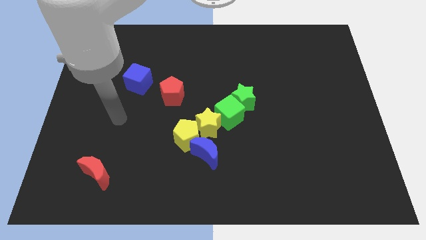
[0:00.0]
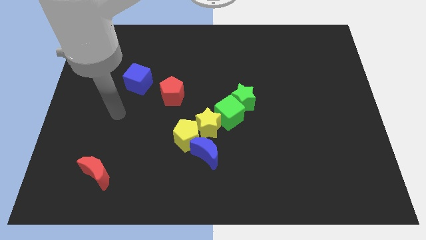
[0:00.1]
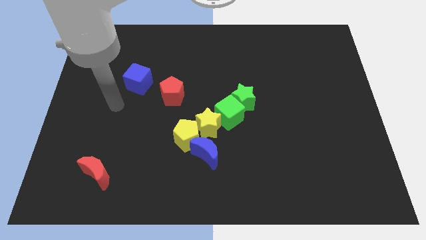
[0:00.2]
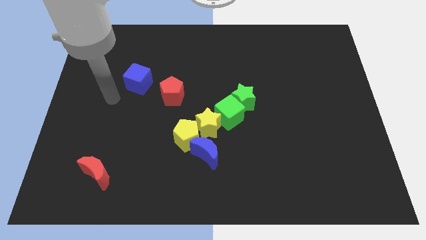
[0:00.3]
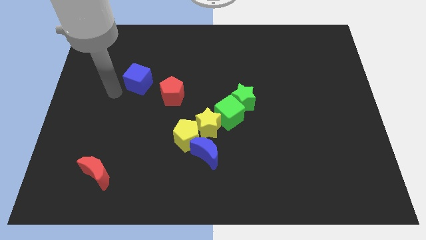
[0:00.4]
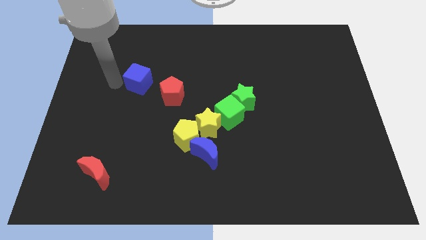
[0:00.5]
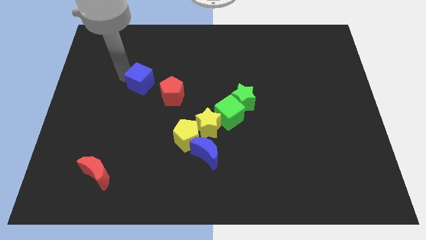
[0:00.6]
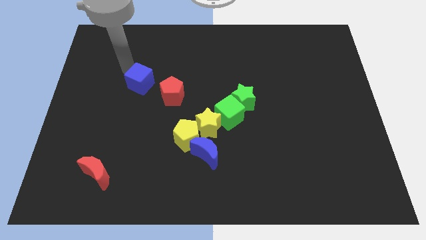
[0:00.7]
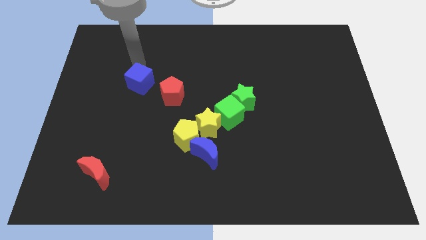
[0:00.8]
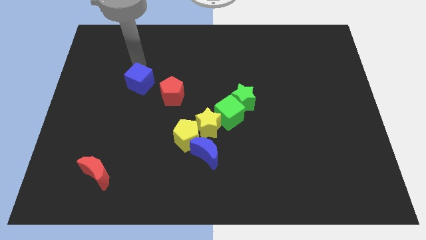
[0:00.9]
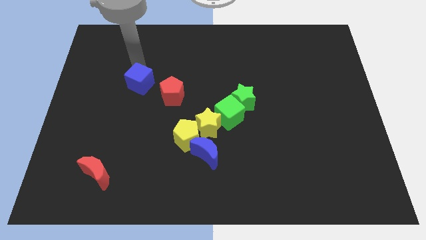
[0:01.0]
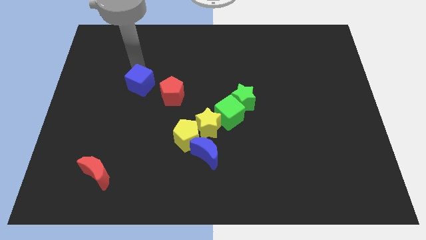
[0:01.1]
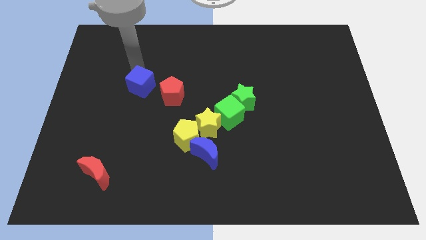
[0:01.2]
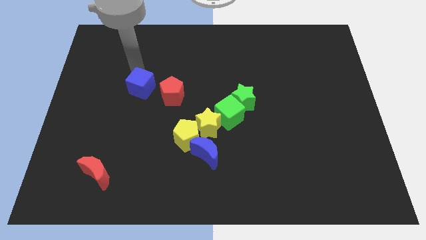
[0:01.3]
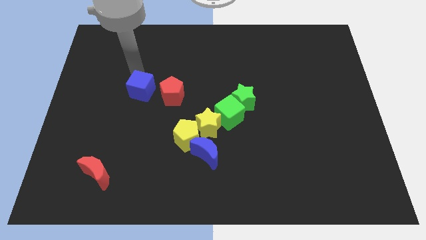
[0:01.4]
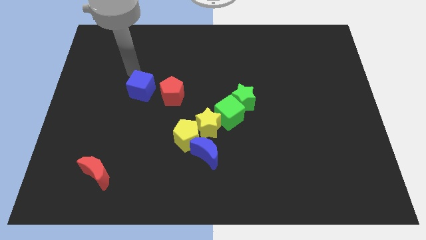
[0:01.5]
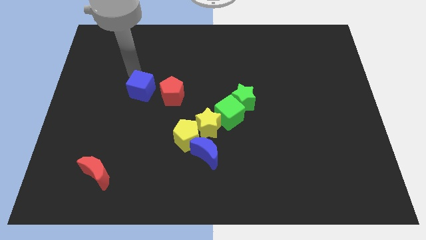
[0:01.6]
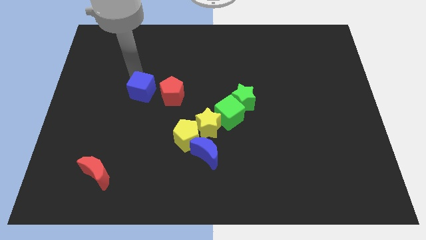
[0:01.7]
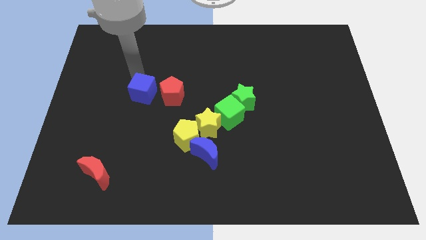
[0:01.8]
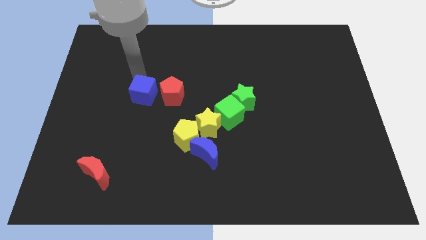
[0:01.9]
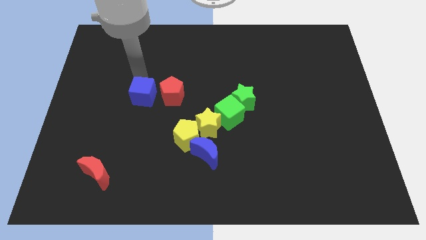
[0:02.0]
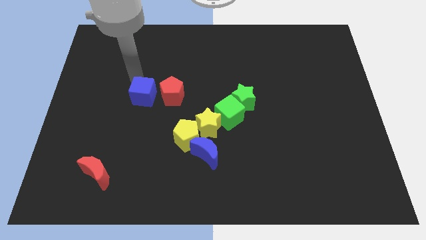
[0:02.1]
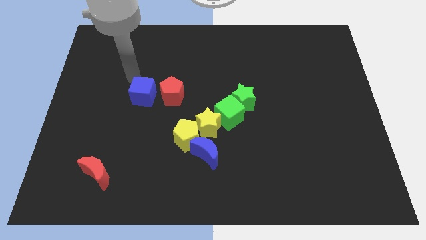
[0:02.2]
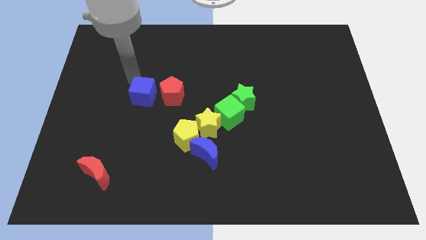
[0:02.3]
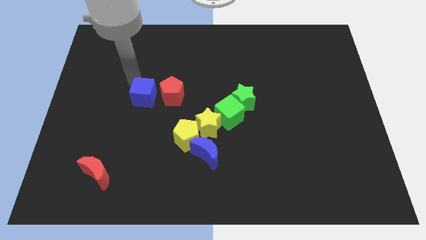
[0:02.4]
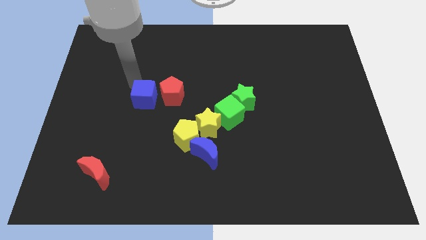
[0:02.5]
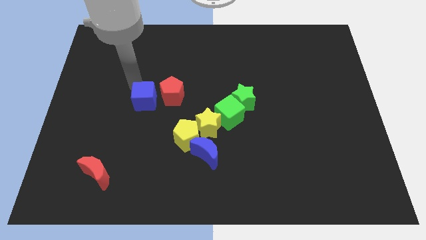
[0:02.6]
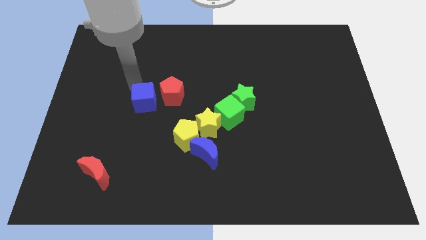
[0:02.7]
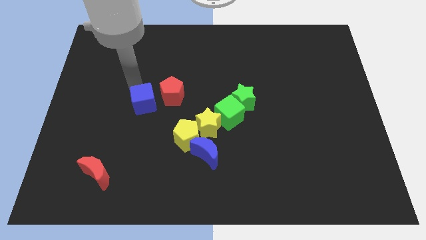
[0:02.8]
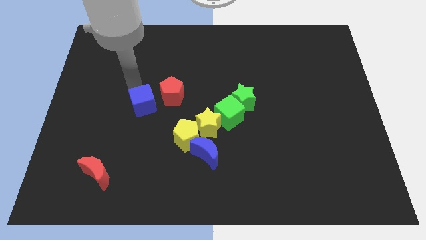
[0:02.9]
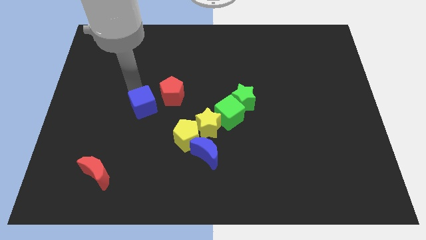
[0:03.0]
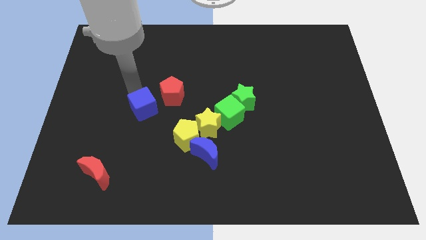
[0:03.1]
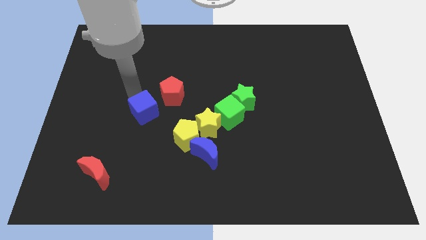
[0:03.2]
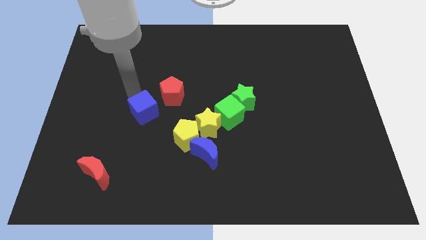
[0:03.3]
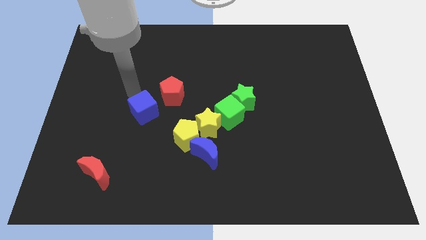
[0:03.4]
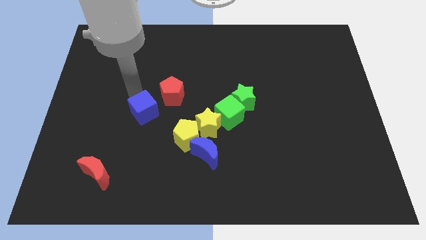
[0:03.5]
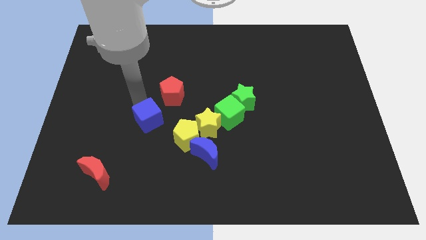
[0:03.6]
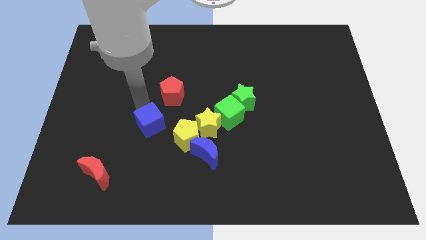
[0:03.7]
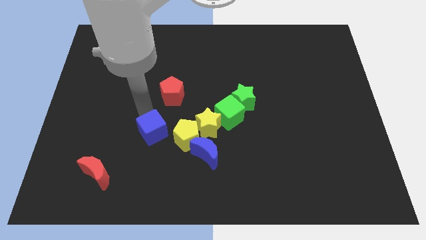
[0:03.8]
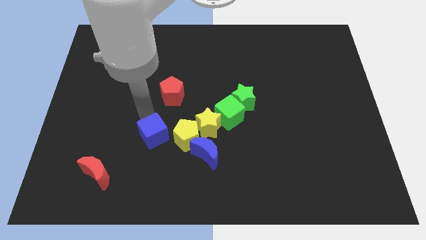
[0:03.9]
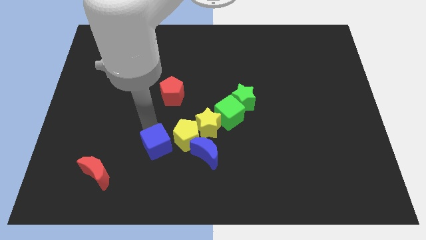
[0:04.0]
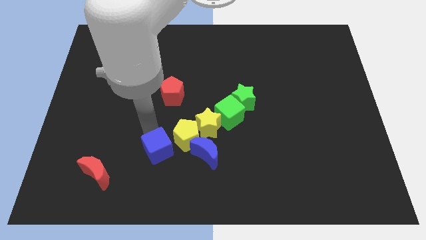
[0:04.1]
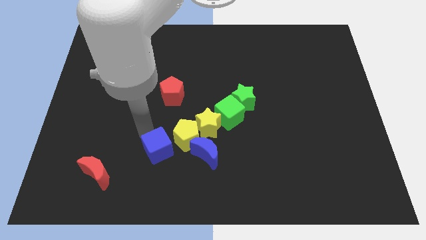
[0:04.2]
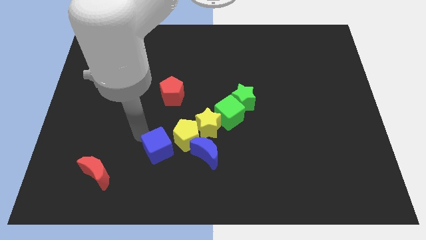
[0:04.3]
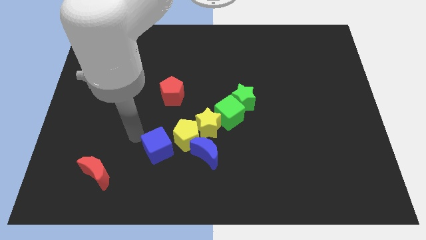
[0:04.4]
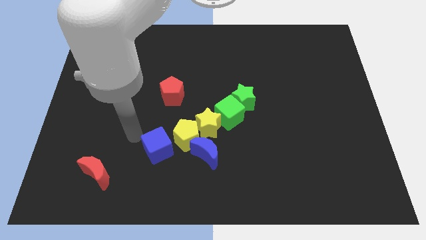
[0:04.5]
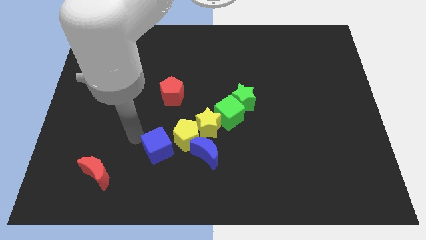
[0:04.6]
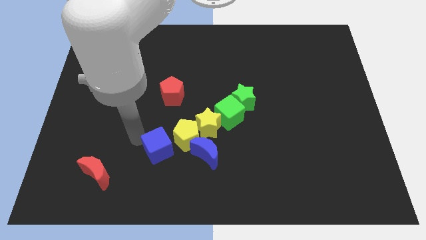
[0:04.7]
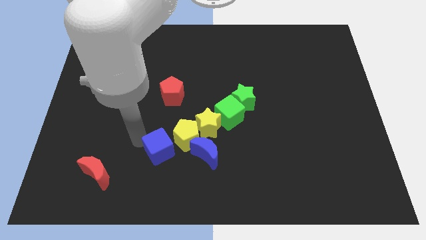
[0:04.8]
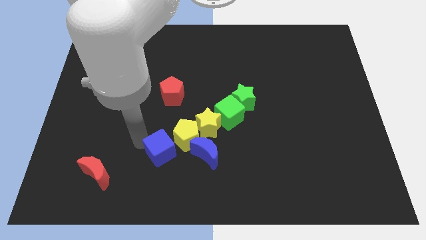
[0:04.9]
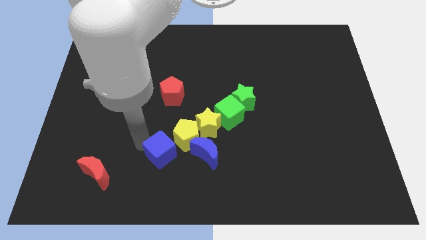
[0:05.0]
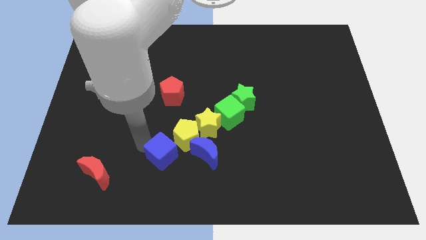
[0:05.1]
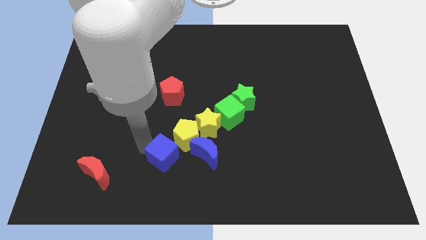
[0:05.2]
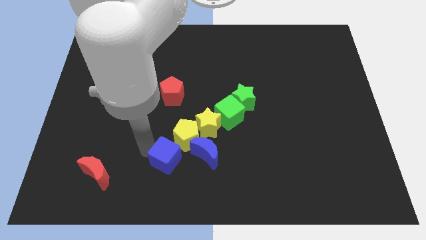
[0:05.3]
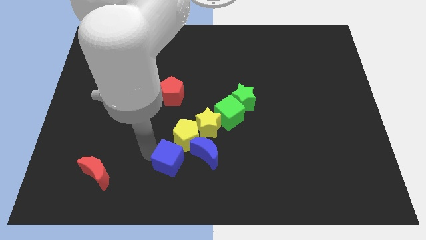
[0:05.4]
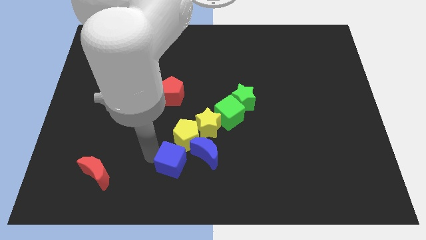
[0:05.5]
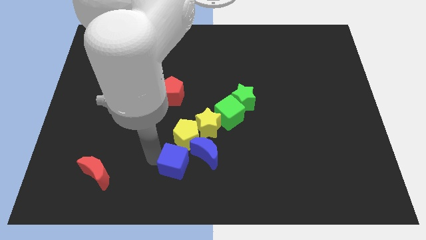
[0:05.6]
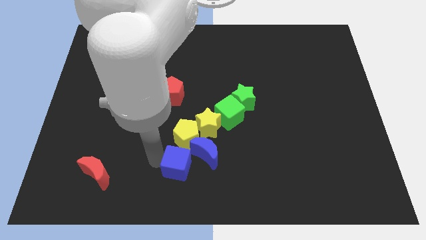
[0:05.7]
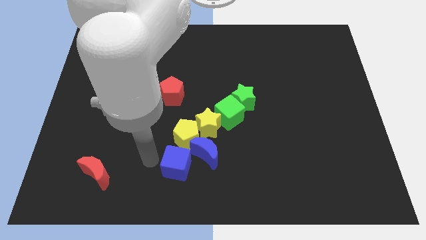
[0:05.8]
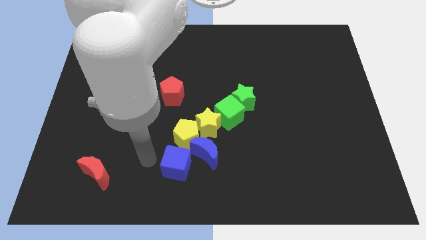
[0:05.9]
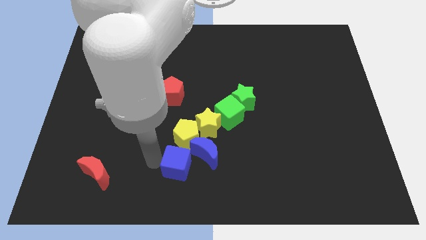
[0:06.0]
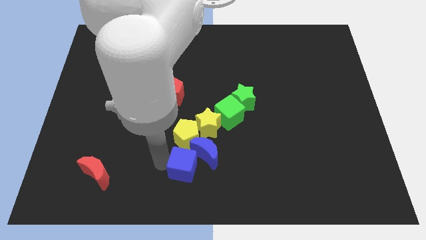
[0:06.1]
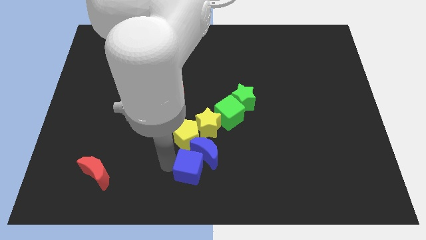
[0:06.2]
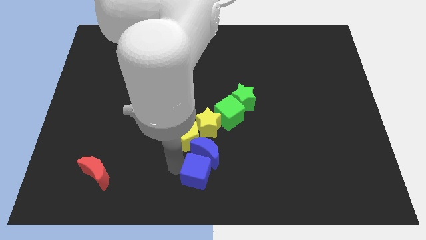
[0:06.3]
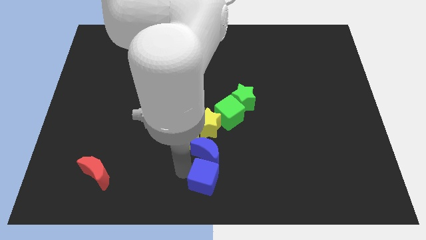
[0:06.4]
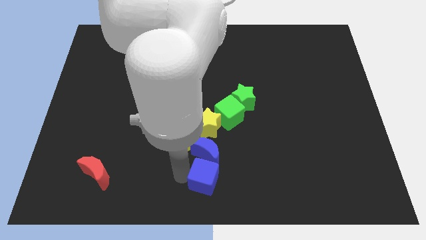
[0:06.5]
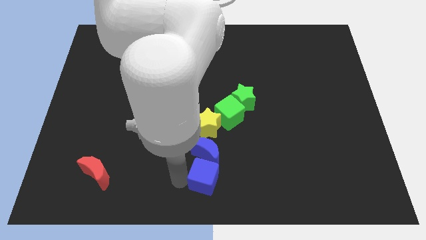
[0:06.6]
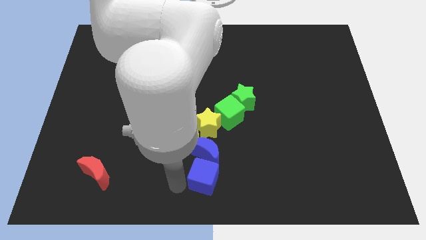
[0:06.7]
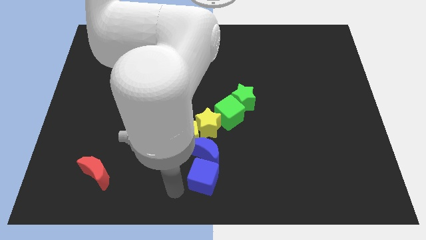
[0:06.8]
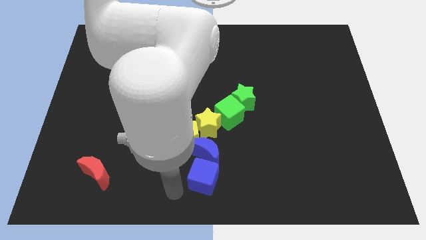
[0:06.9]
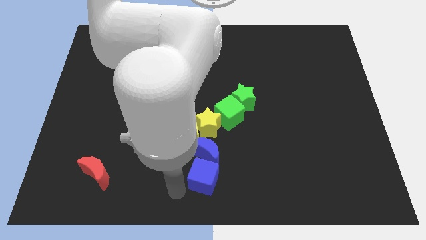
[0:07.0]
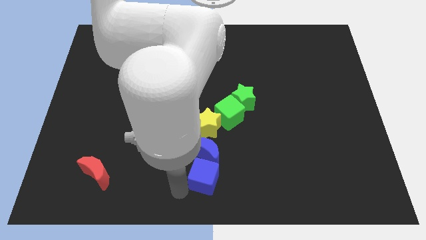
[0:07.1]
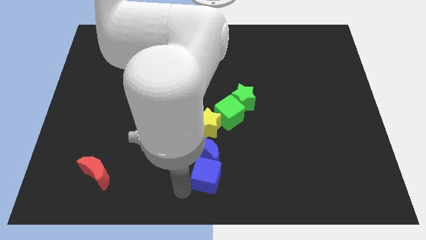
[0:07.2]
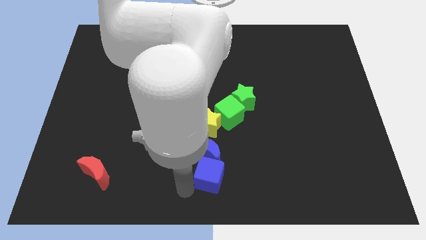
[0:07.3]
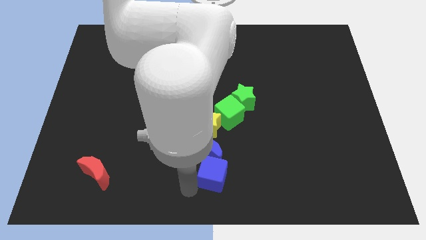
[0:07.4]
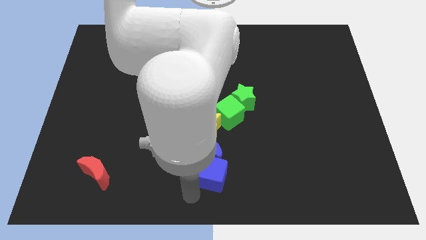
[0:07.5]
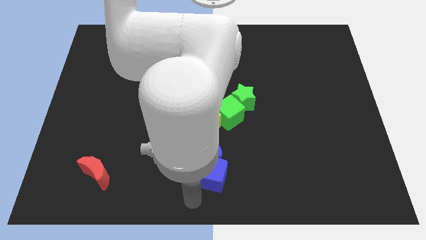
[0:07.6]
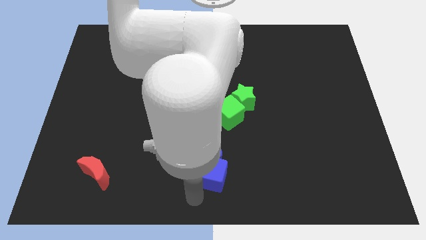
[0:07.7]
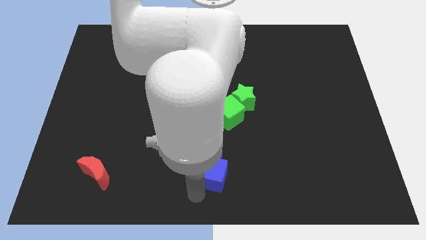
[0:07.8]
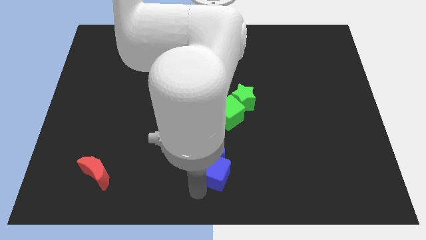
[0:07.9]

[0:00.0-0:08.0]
put the blue cube to the bottom of the green cube
